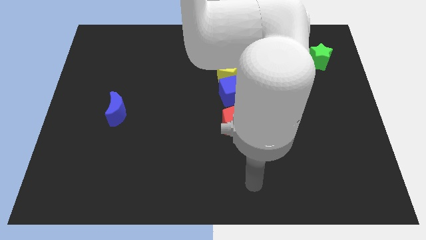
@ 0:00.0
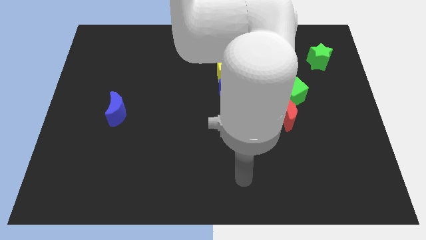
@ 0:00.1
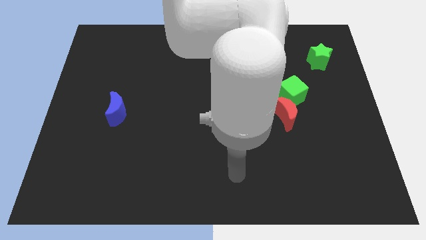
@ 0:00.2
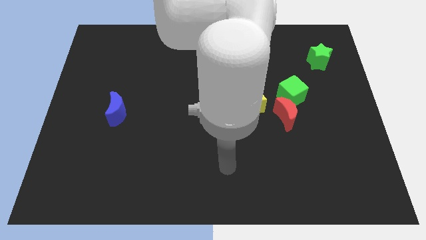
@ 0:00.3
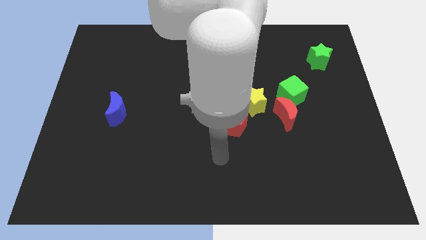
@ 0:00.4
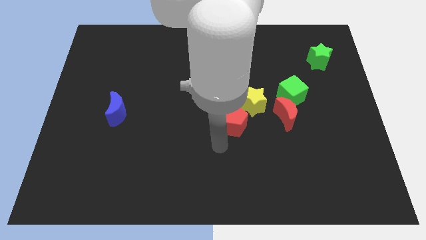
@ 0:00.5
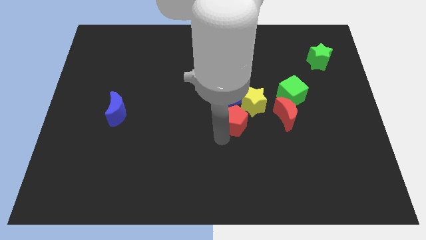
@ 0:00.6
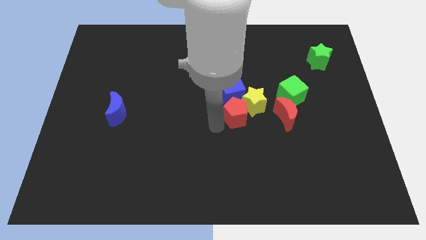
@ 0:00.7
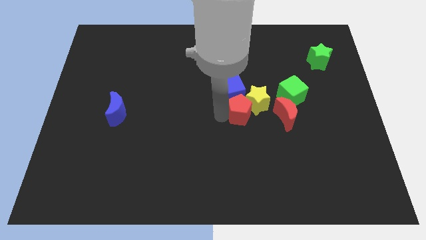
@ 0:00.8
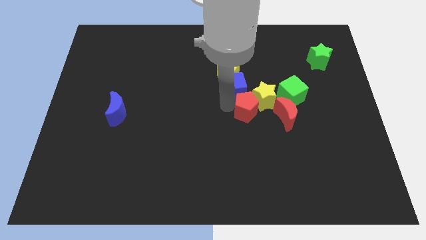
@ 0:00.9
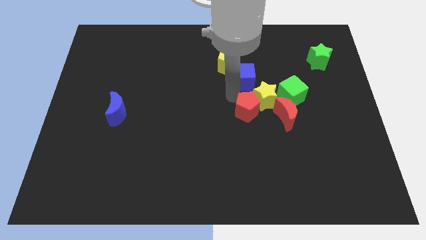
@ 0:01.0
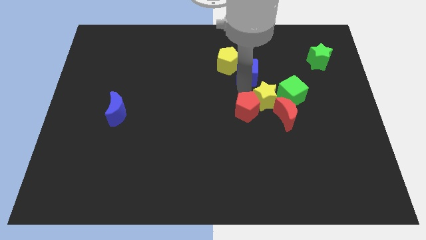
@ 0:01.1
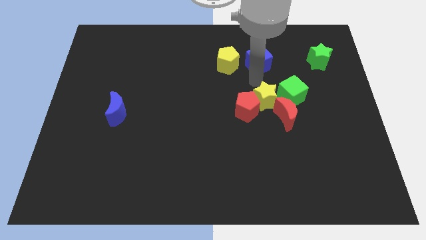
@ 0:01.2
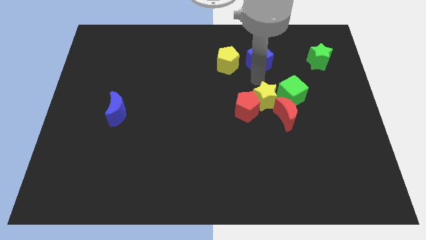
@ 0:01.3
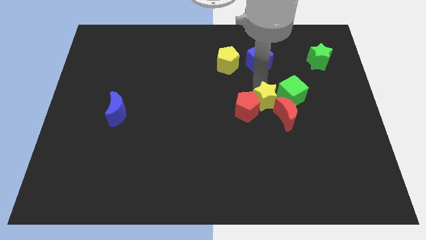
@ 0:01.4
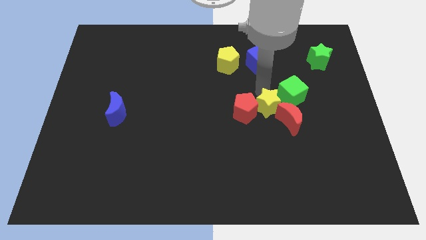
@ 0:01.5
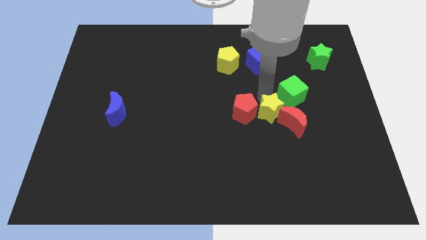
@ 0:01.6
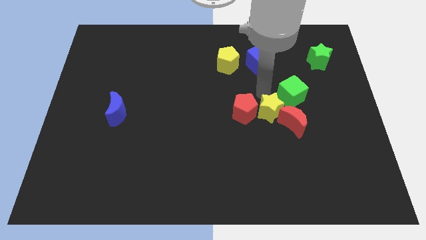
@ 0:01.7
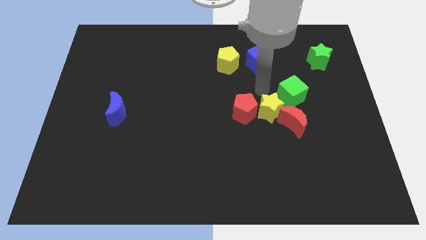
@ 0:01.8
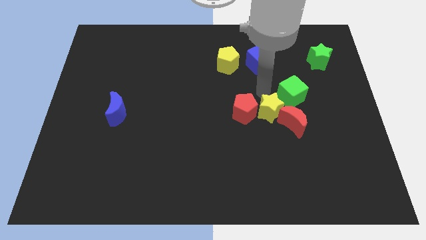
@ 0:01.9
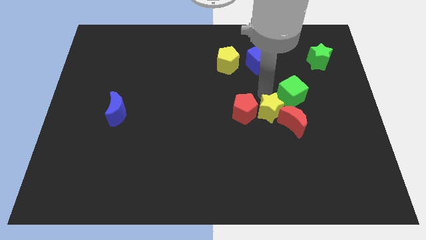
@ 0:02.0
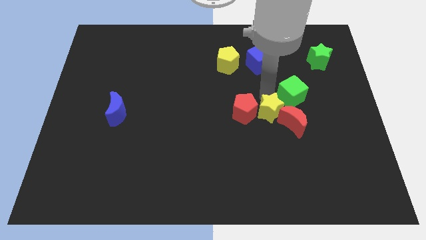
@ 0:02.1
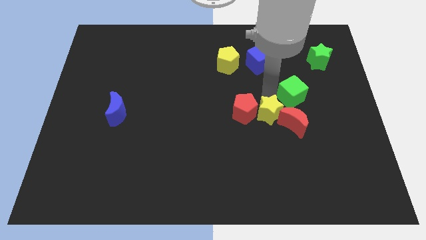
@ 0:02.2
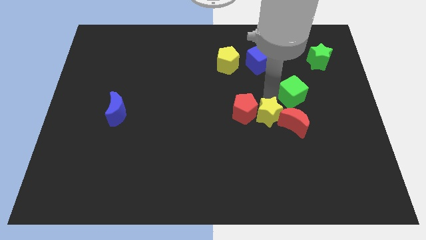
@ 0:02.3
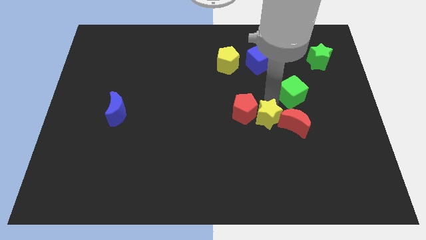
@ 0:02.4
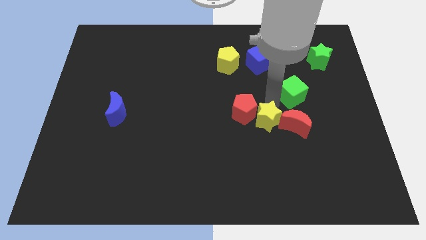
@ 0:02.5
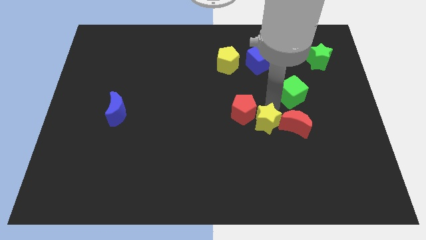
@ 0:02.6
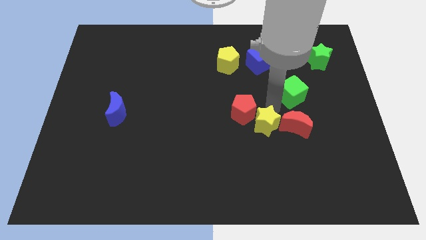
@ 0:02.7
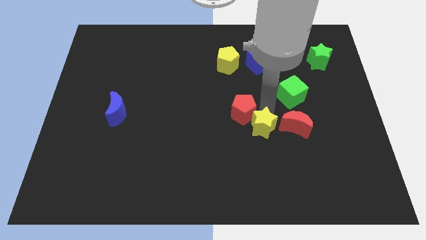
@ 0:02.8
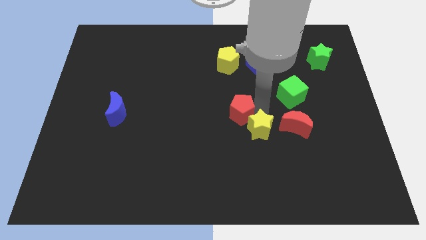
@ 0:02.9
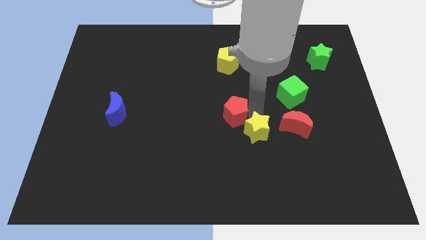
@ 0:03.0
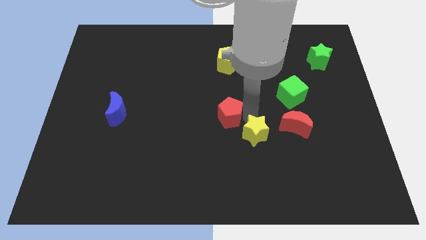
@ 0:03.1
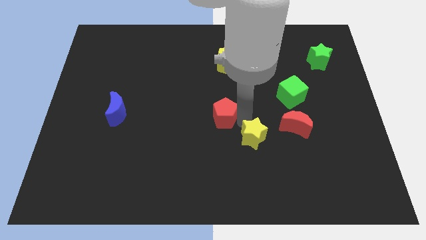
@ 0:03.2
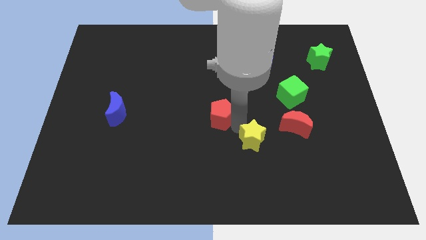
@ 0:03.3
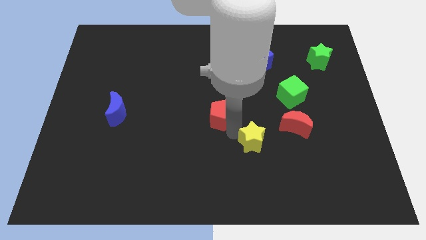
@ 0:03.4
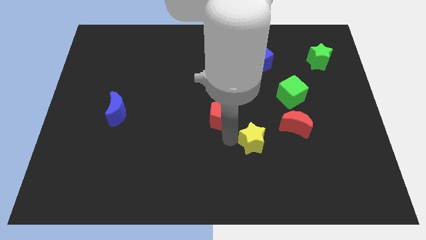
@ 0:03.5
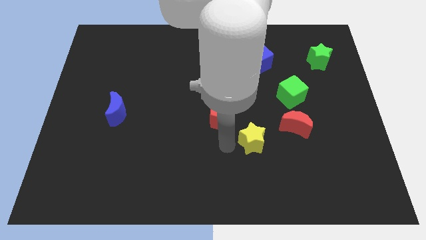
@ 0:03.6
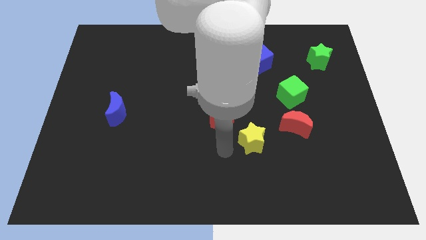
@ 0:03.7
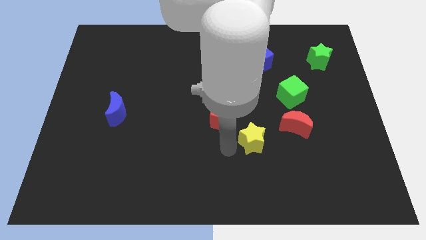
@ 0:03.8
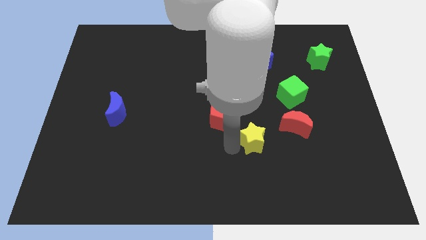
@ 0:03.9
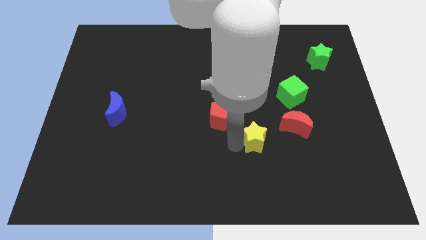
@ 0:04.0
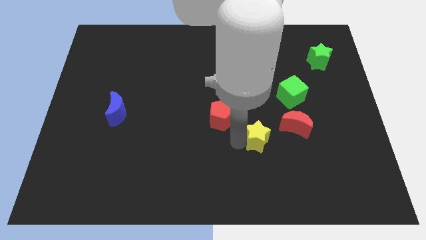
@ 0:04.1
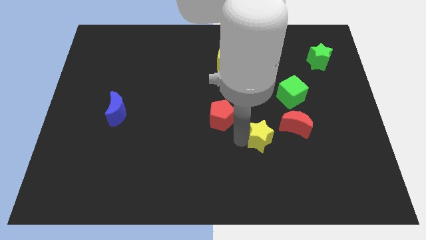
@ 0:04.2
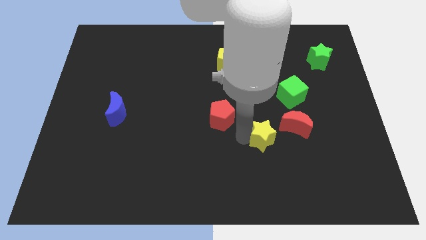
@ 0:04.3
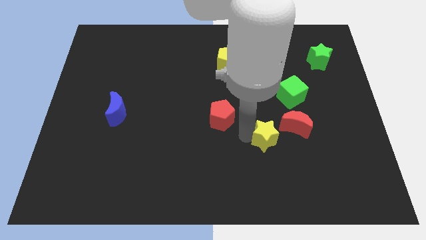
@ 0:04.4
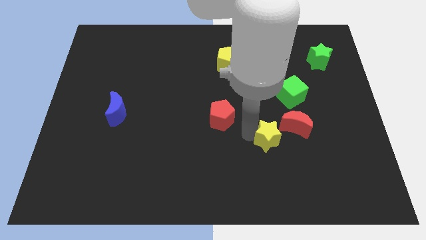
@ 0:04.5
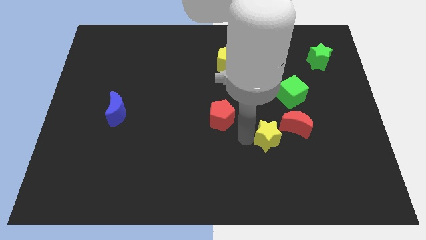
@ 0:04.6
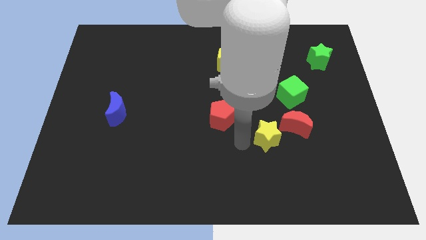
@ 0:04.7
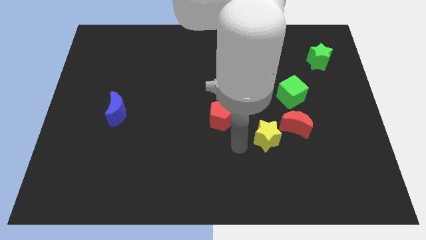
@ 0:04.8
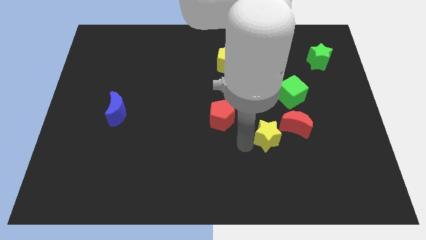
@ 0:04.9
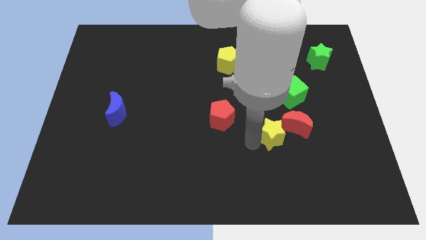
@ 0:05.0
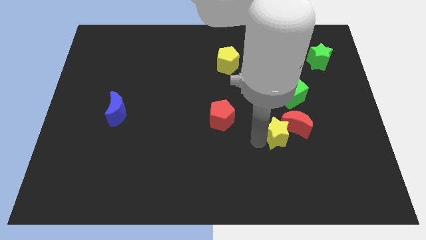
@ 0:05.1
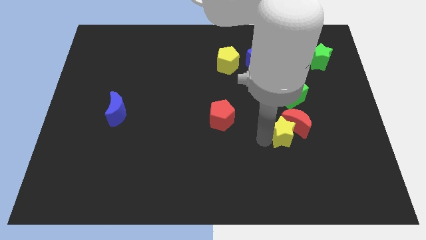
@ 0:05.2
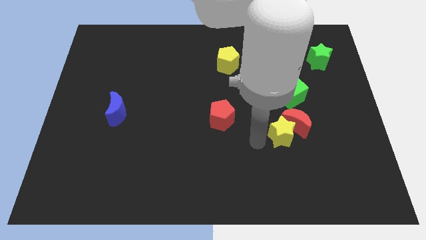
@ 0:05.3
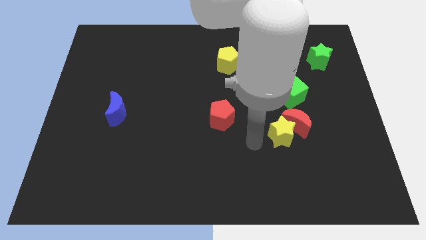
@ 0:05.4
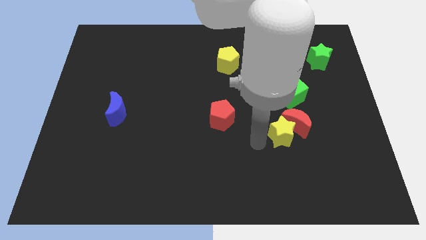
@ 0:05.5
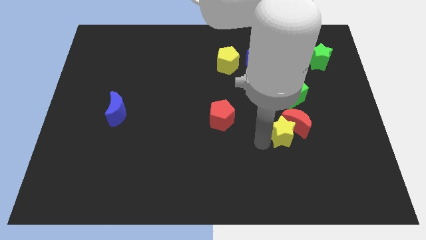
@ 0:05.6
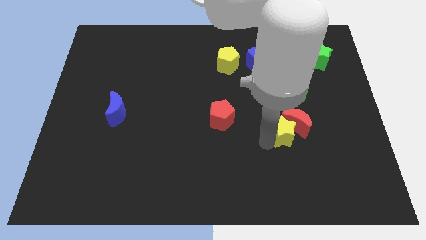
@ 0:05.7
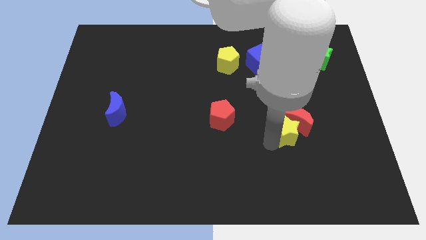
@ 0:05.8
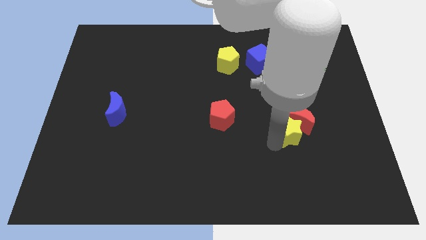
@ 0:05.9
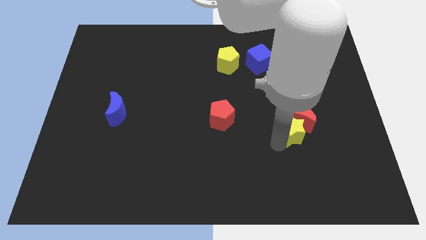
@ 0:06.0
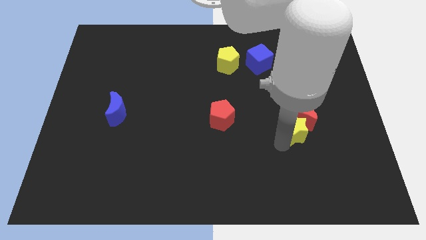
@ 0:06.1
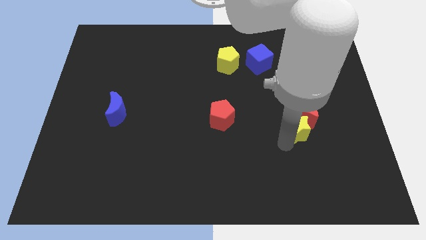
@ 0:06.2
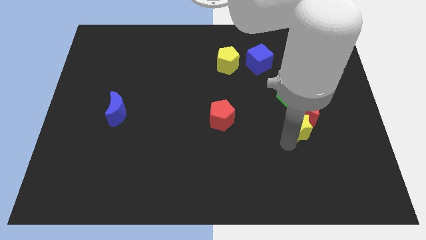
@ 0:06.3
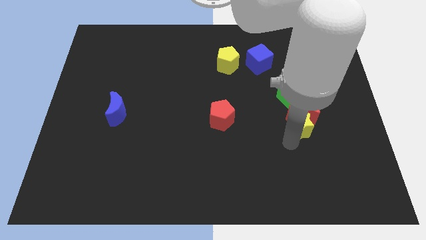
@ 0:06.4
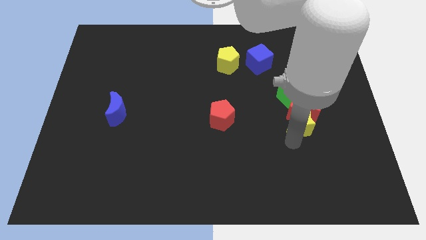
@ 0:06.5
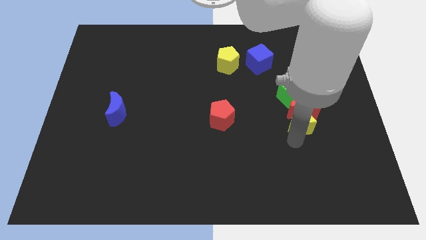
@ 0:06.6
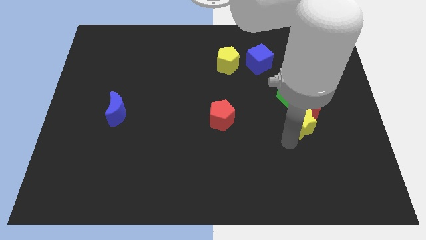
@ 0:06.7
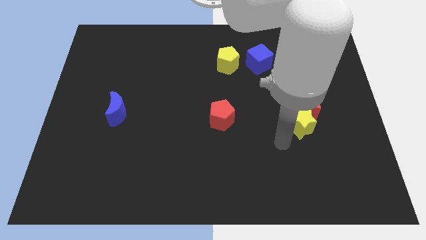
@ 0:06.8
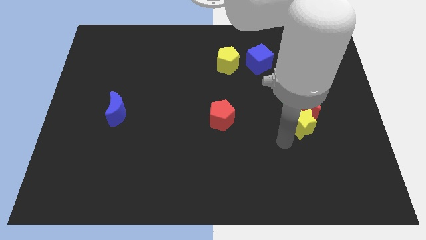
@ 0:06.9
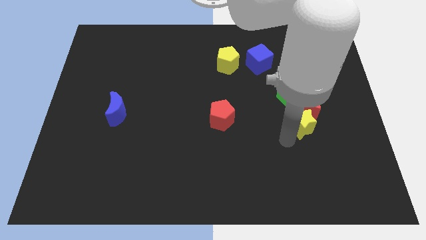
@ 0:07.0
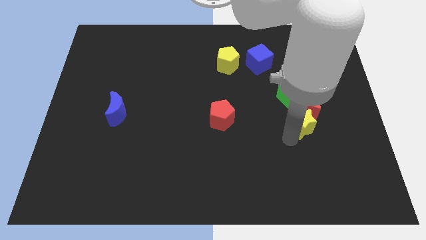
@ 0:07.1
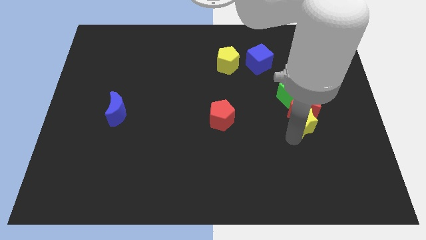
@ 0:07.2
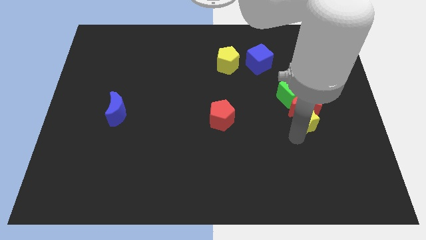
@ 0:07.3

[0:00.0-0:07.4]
put the yellow star to the bottom right side of the green cube

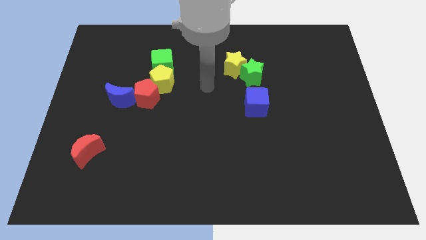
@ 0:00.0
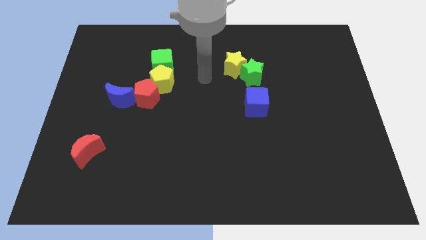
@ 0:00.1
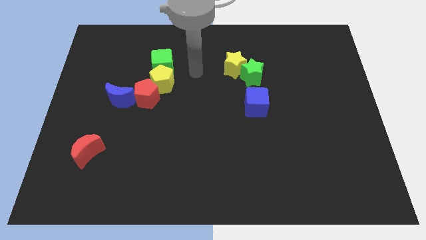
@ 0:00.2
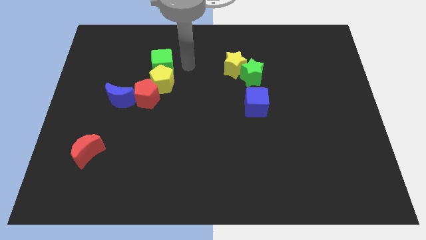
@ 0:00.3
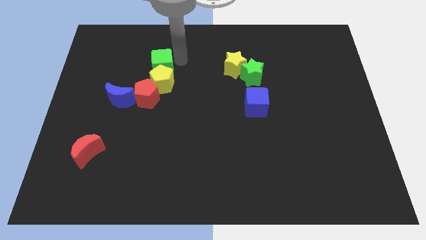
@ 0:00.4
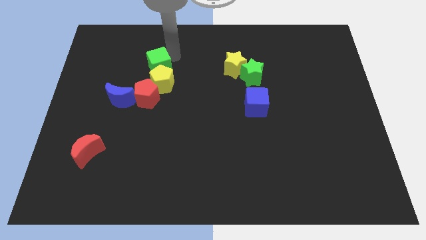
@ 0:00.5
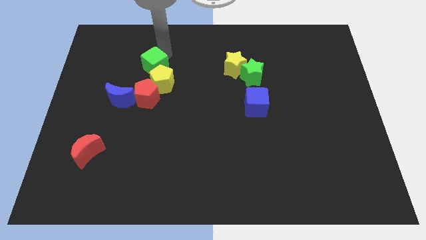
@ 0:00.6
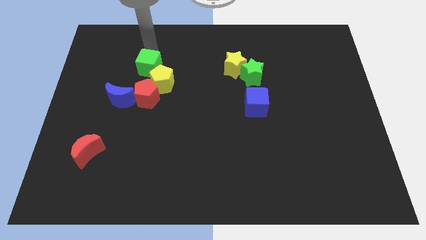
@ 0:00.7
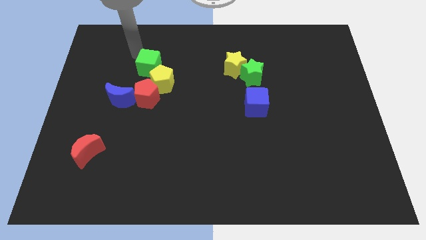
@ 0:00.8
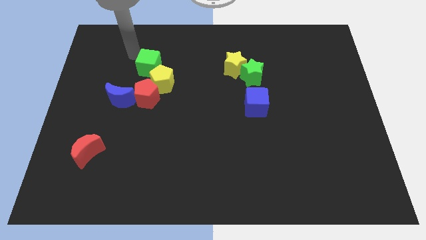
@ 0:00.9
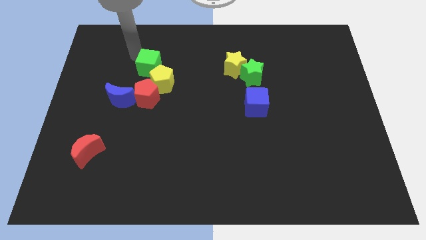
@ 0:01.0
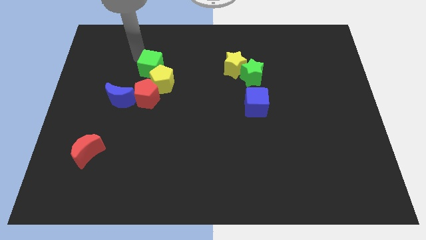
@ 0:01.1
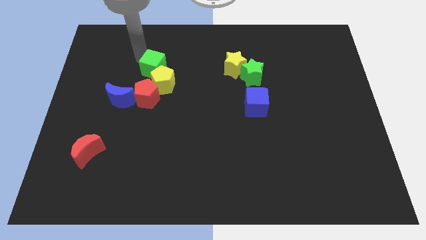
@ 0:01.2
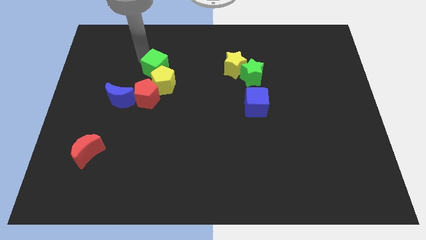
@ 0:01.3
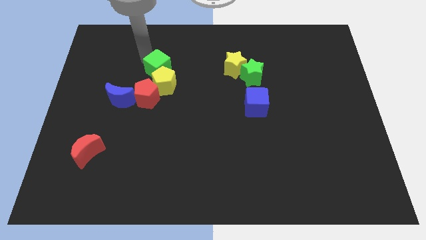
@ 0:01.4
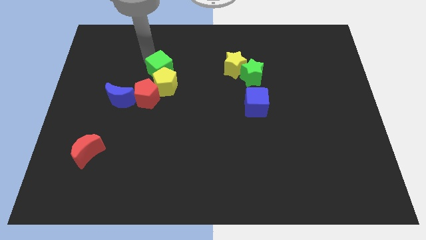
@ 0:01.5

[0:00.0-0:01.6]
push the green cube diagonally up and to the right of the red pentagon
